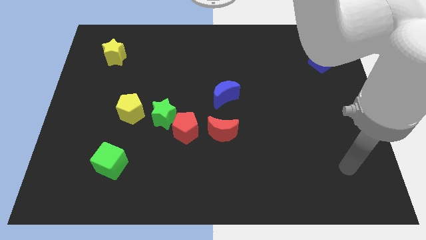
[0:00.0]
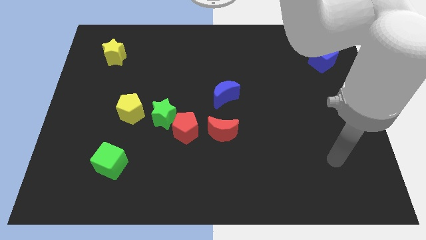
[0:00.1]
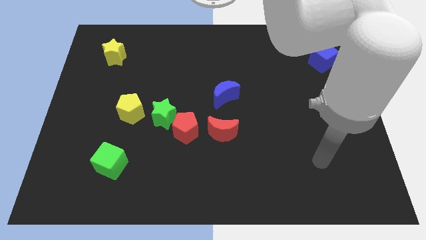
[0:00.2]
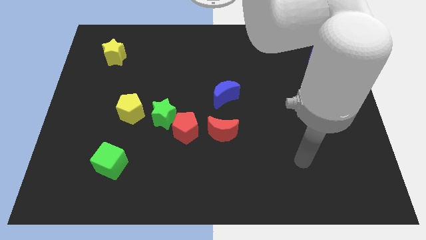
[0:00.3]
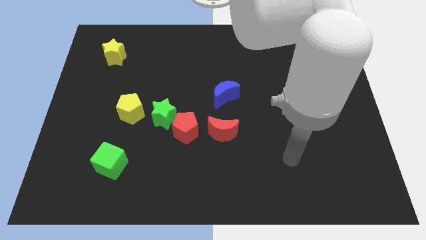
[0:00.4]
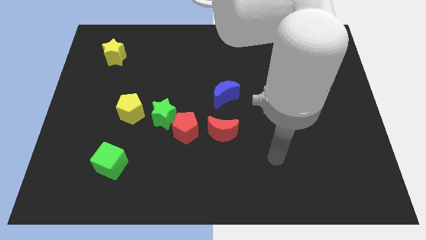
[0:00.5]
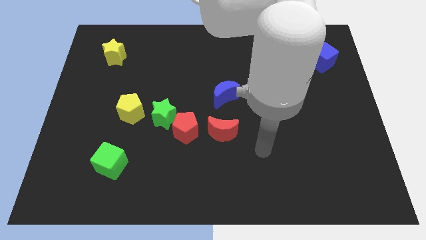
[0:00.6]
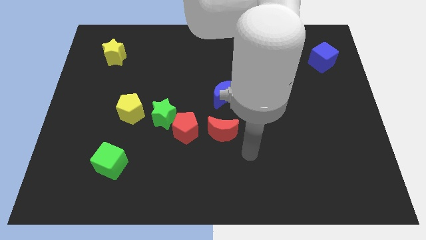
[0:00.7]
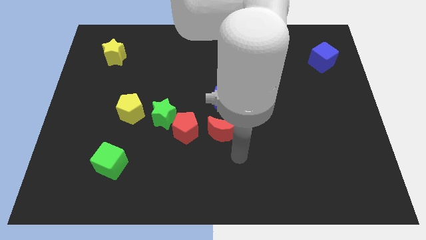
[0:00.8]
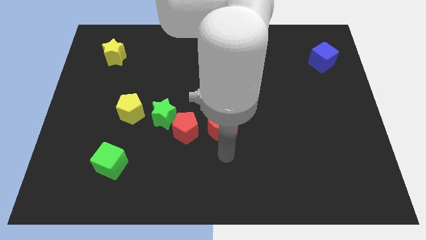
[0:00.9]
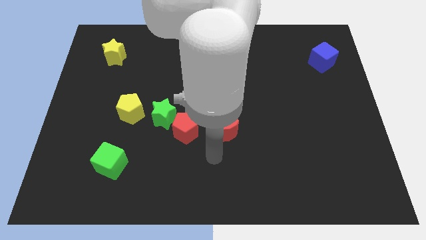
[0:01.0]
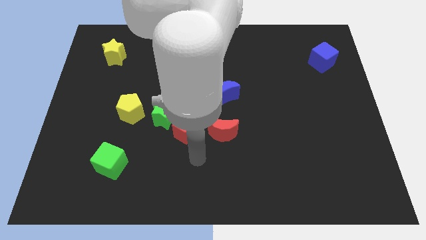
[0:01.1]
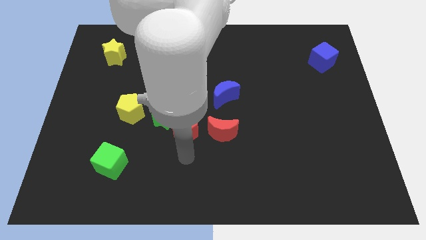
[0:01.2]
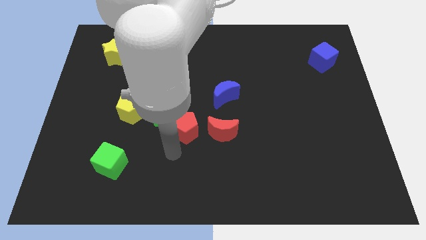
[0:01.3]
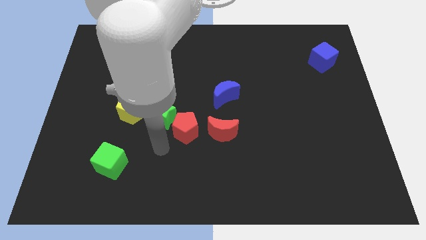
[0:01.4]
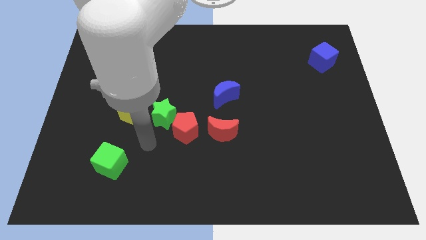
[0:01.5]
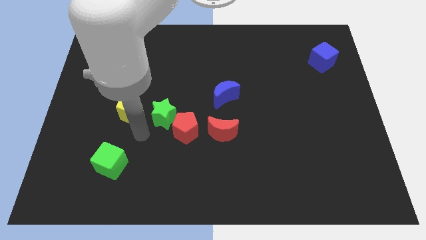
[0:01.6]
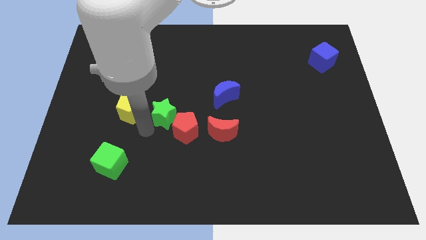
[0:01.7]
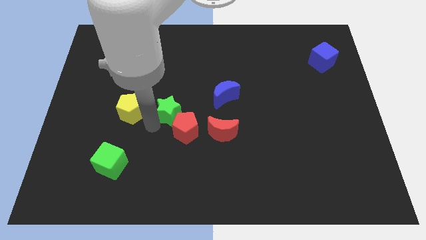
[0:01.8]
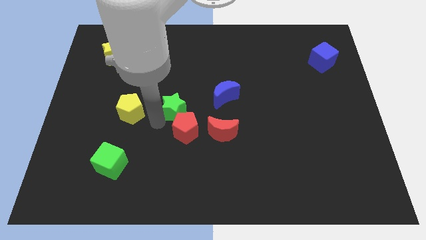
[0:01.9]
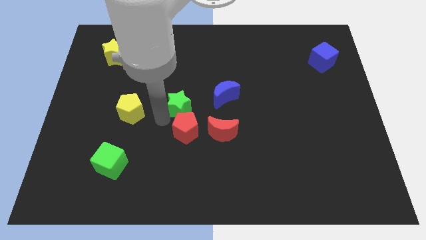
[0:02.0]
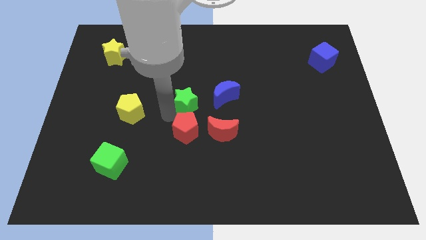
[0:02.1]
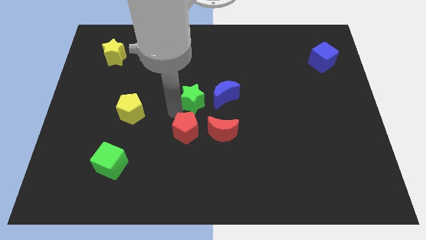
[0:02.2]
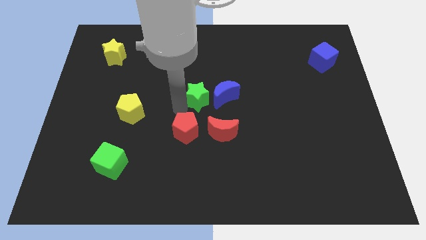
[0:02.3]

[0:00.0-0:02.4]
pull the green star apart from the red pentagon and yellow pentagon

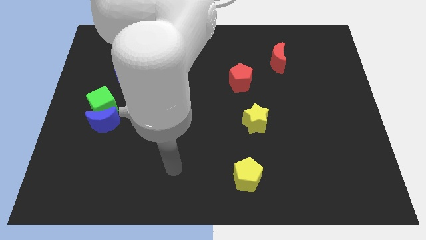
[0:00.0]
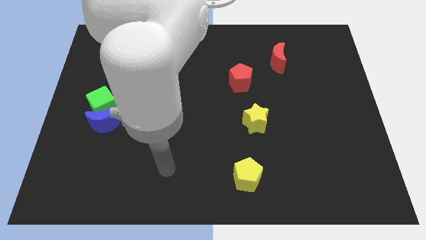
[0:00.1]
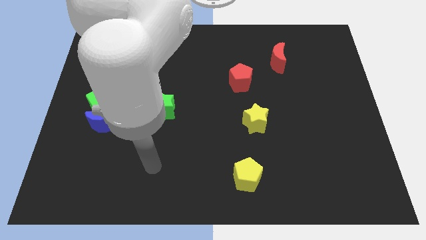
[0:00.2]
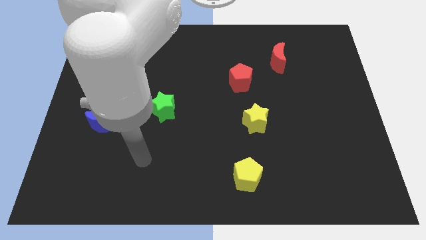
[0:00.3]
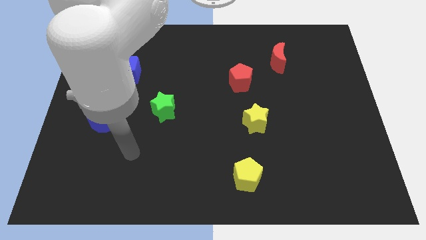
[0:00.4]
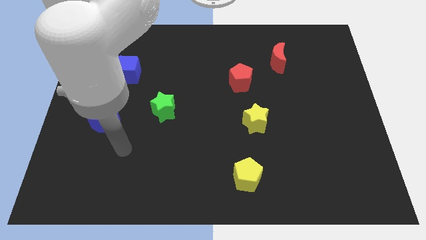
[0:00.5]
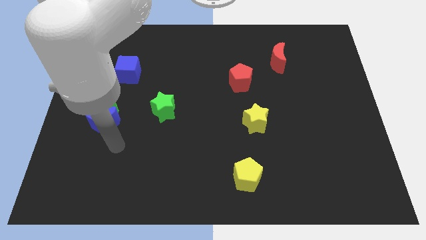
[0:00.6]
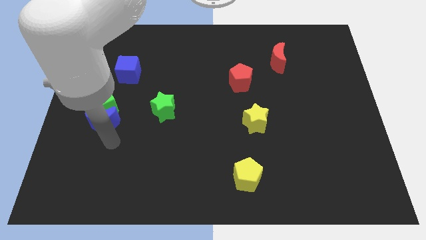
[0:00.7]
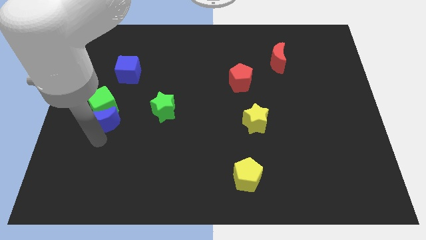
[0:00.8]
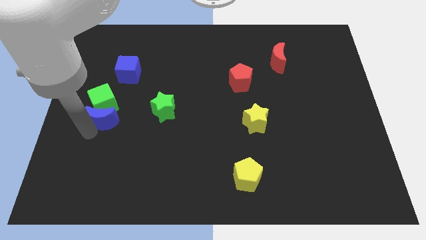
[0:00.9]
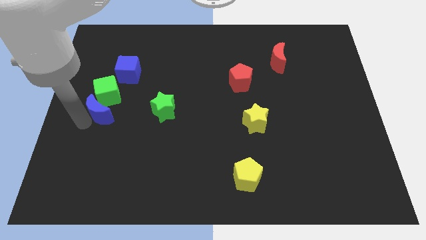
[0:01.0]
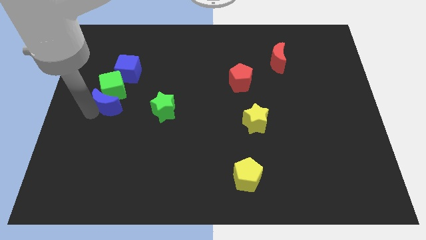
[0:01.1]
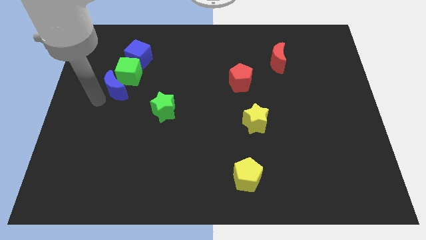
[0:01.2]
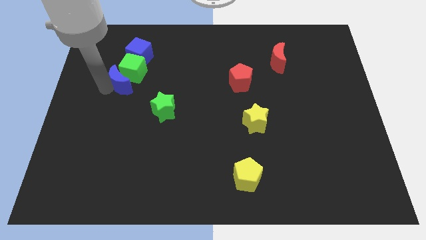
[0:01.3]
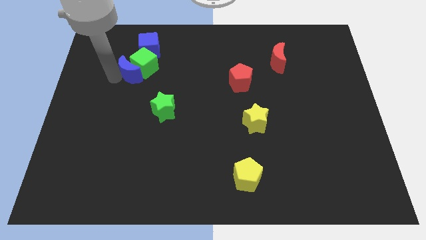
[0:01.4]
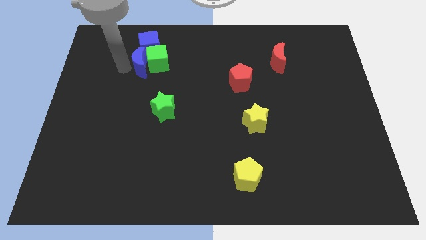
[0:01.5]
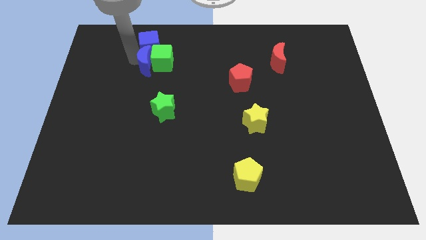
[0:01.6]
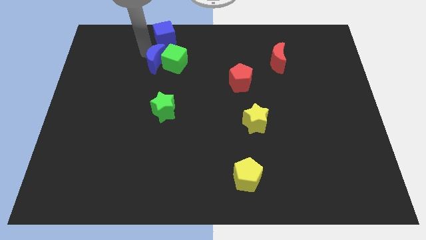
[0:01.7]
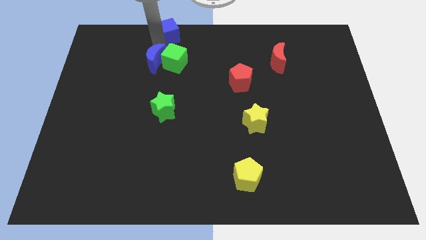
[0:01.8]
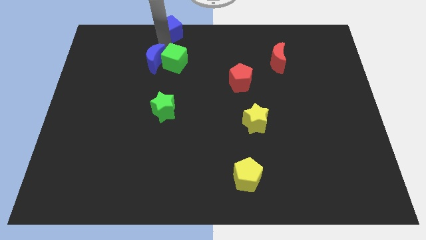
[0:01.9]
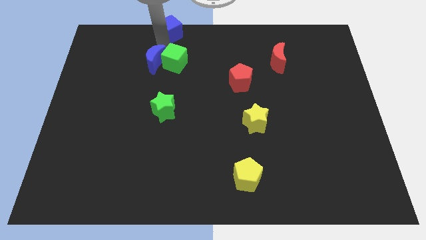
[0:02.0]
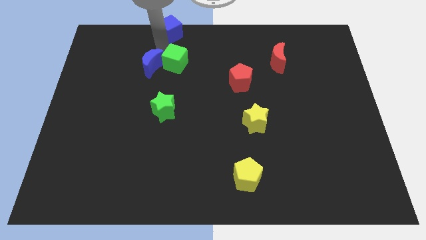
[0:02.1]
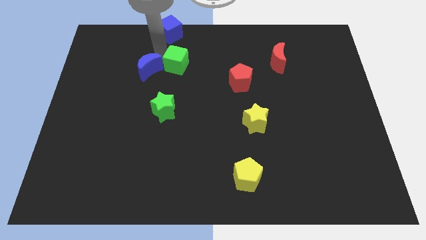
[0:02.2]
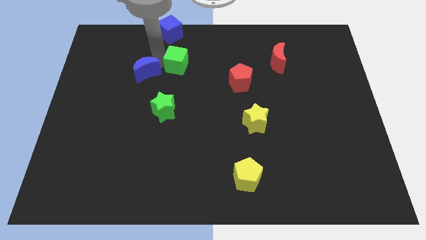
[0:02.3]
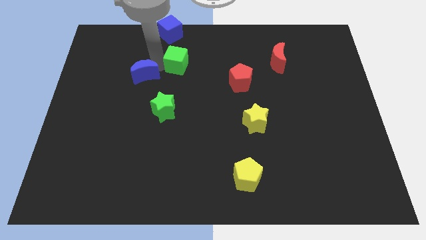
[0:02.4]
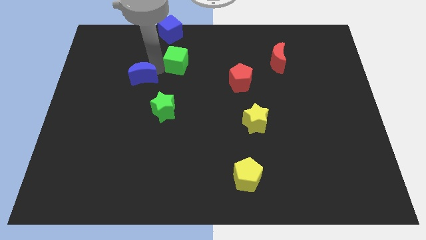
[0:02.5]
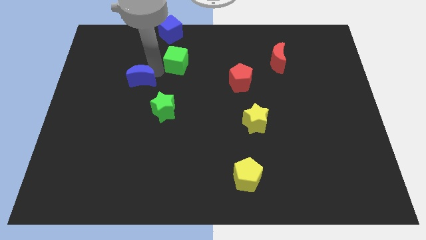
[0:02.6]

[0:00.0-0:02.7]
pull the blue moon apart from the green cube

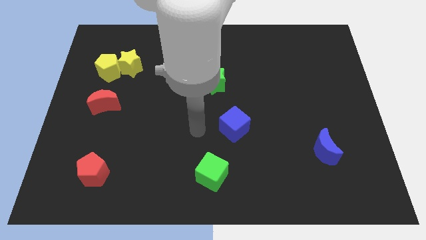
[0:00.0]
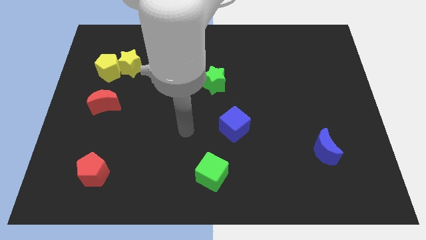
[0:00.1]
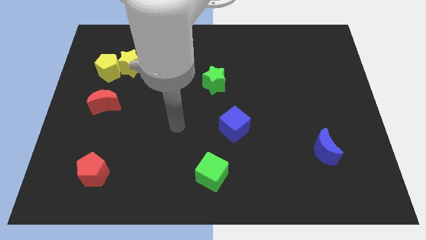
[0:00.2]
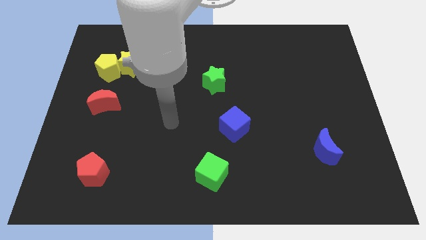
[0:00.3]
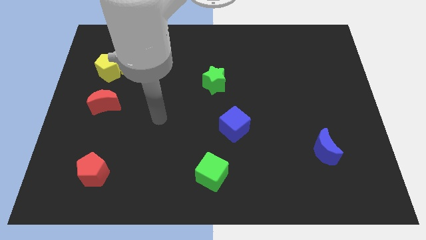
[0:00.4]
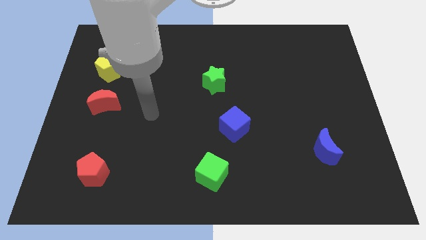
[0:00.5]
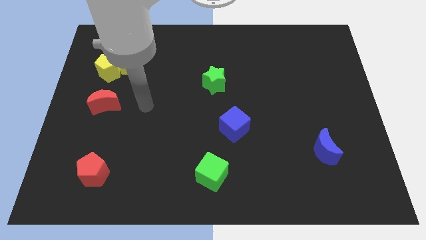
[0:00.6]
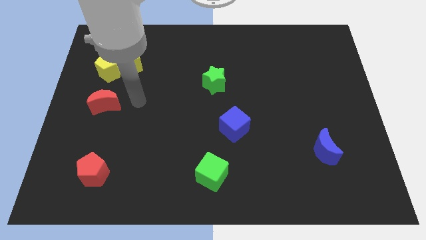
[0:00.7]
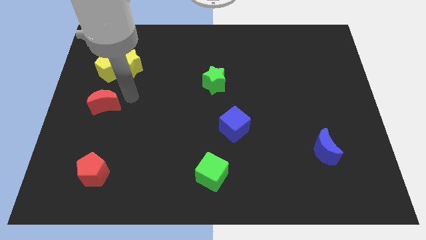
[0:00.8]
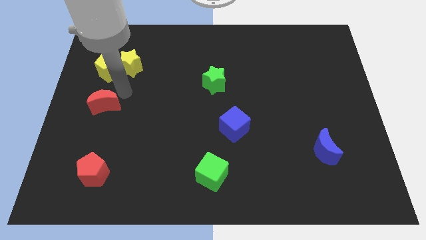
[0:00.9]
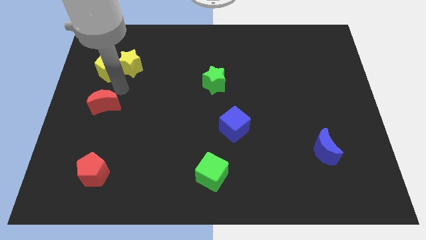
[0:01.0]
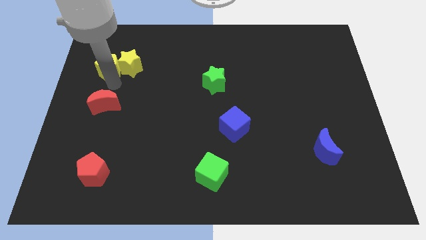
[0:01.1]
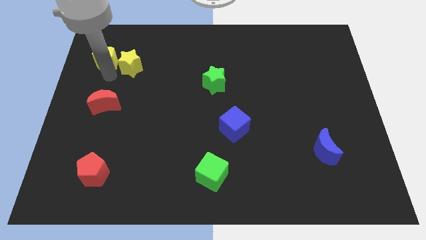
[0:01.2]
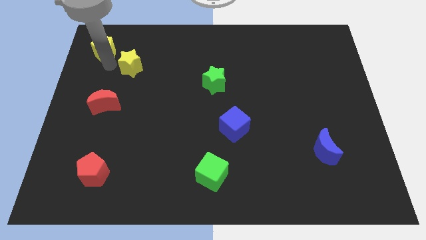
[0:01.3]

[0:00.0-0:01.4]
move the yellow star away from the yellow pentagon

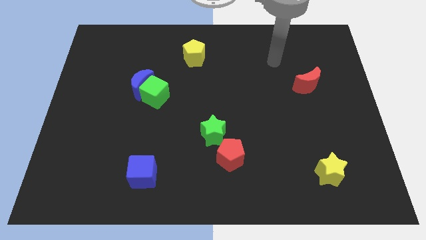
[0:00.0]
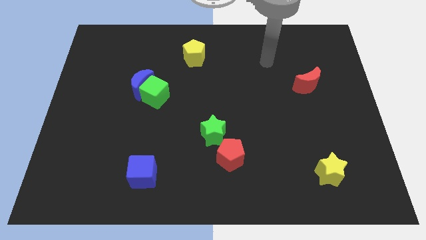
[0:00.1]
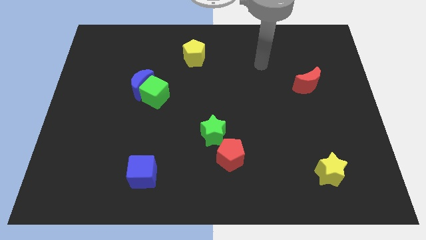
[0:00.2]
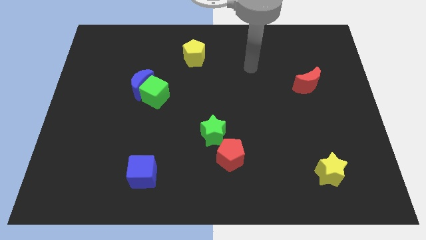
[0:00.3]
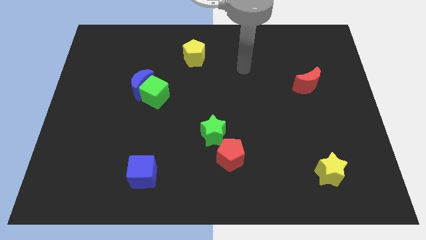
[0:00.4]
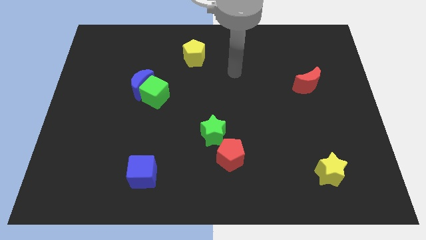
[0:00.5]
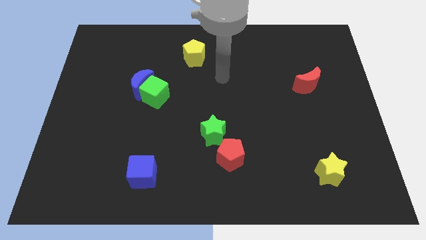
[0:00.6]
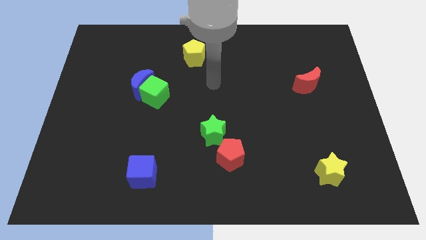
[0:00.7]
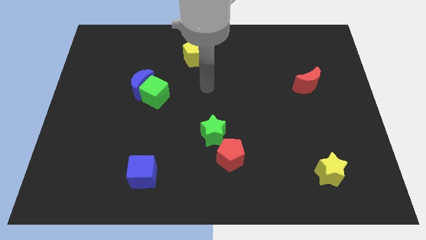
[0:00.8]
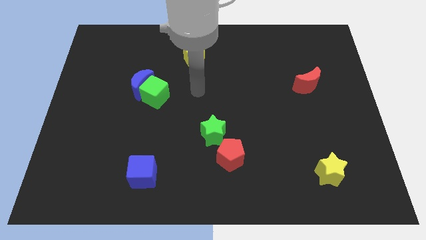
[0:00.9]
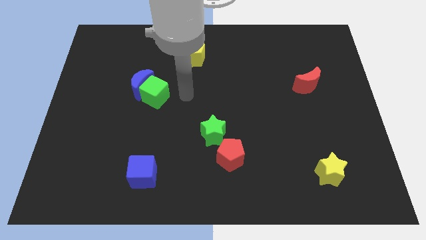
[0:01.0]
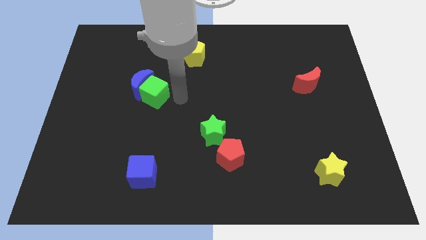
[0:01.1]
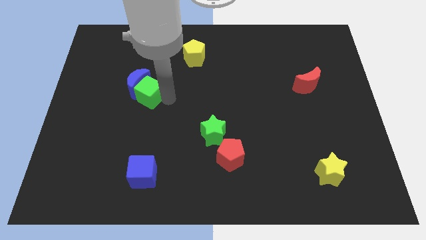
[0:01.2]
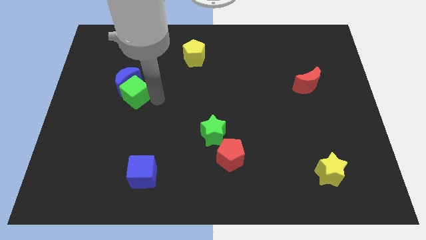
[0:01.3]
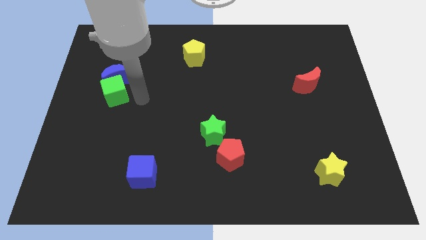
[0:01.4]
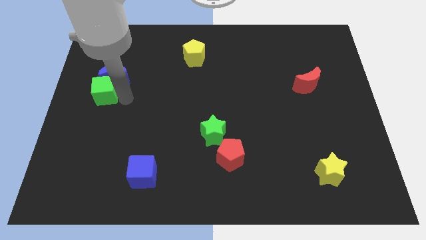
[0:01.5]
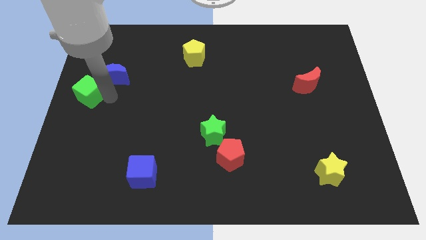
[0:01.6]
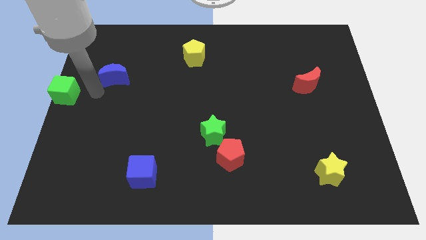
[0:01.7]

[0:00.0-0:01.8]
move the blue moon away from the green cube

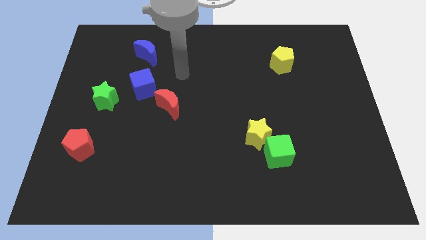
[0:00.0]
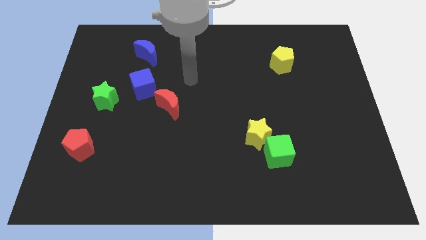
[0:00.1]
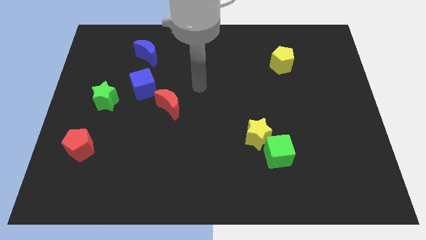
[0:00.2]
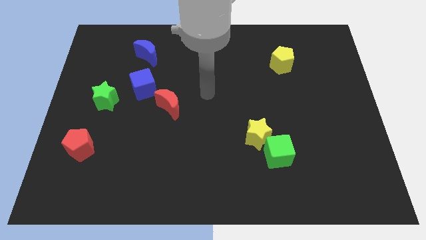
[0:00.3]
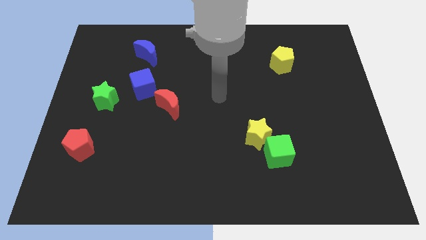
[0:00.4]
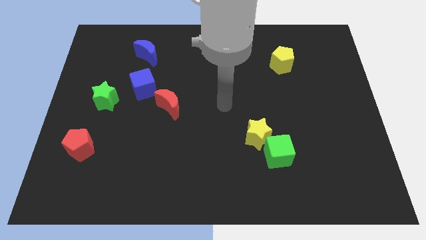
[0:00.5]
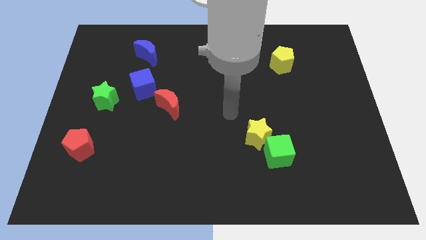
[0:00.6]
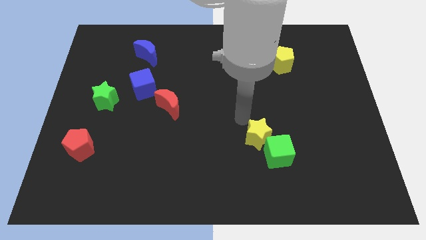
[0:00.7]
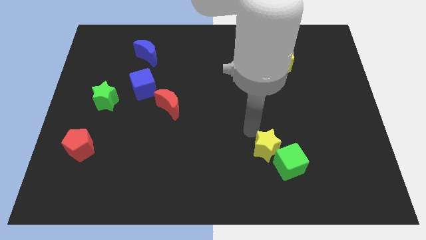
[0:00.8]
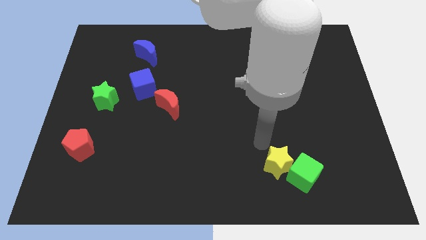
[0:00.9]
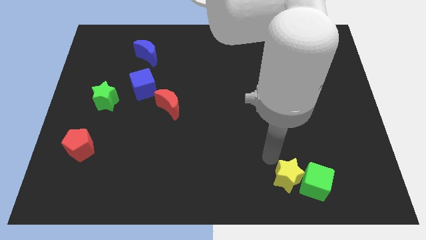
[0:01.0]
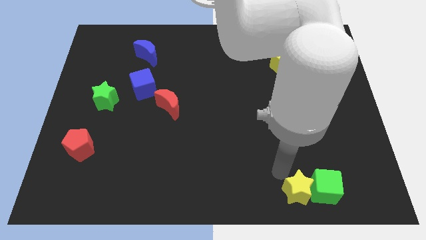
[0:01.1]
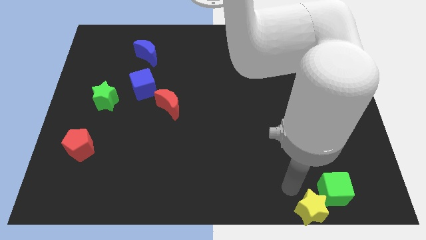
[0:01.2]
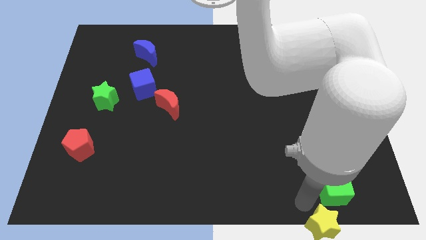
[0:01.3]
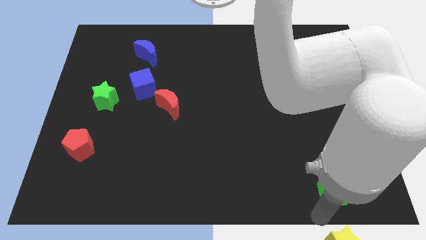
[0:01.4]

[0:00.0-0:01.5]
pull the green cube apart from the yellow star
